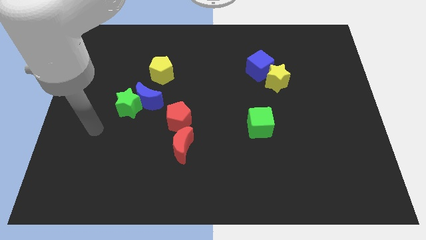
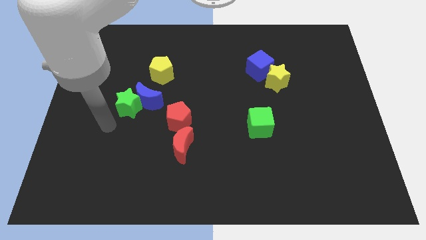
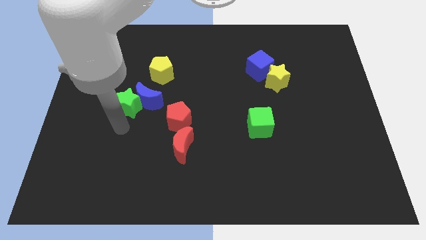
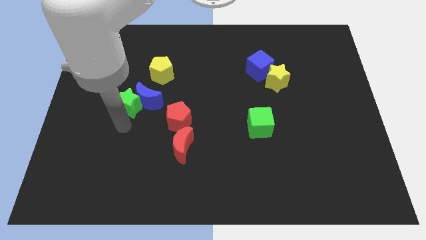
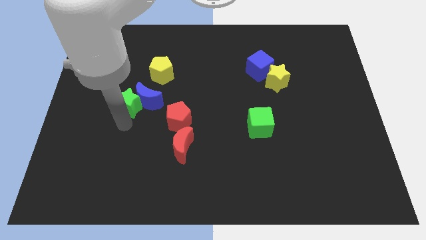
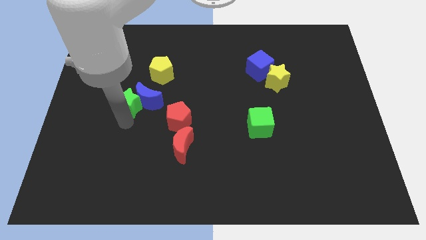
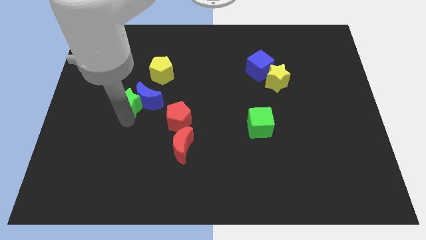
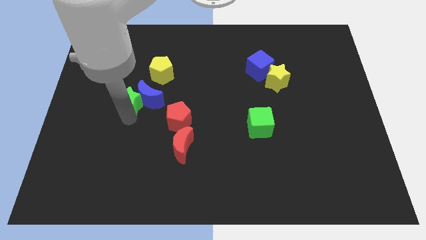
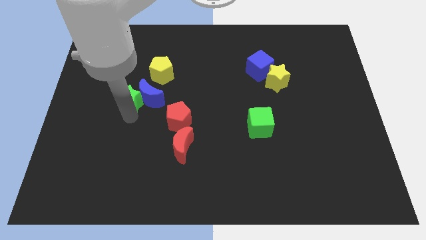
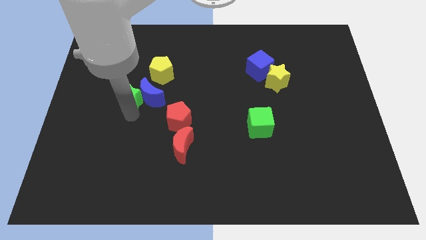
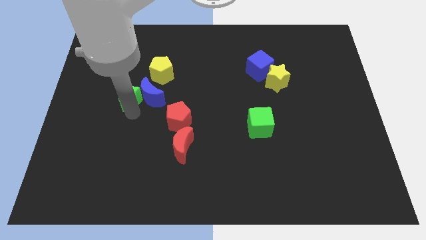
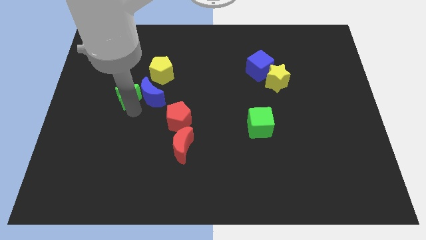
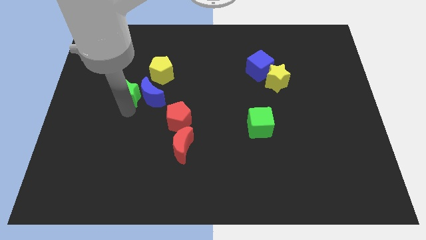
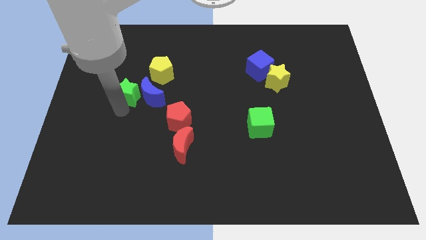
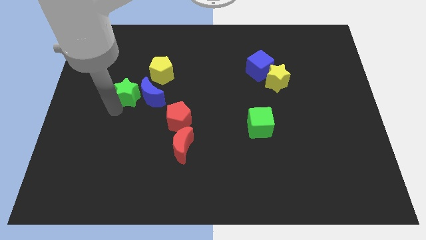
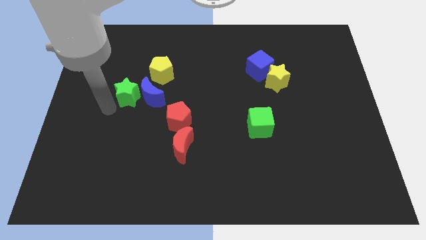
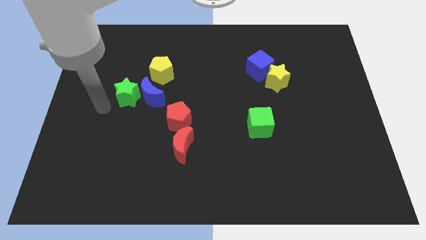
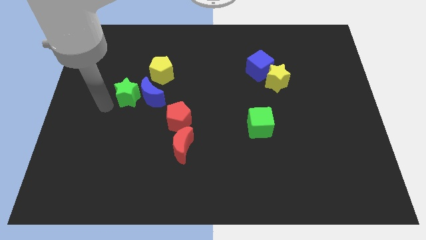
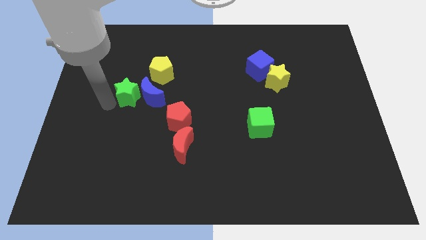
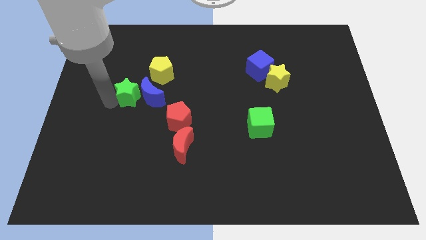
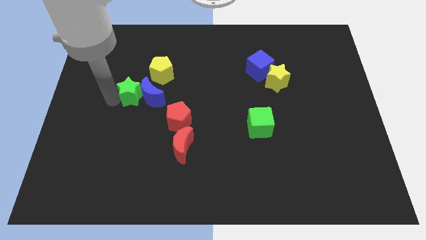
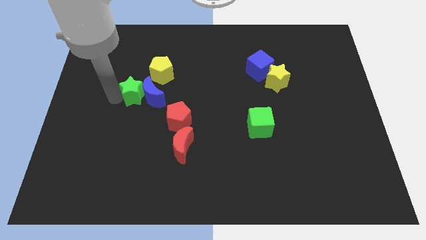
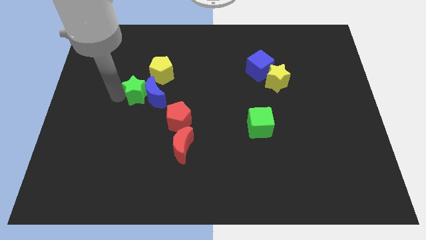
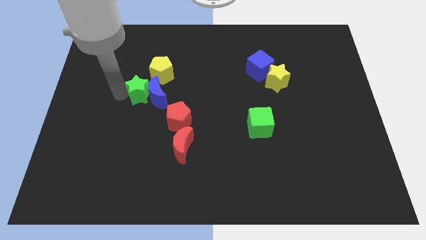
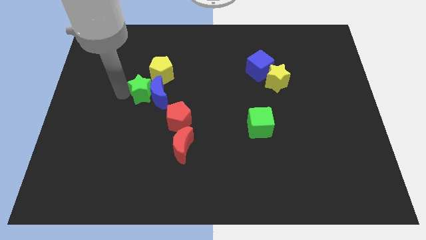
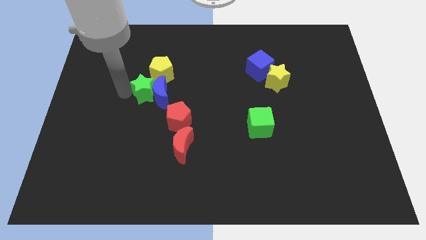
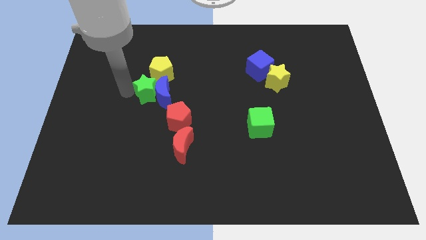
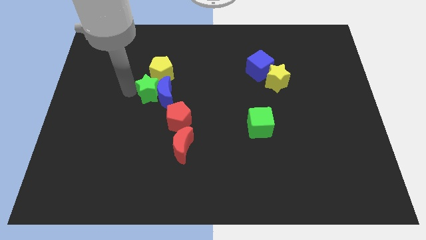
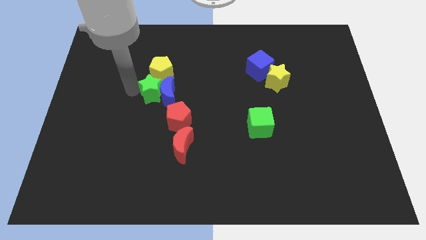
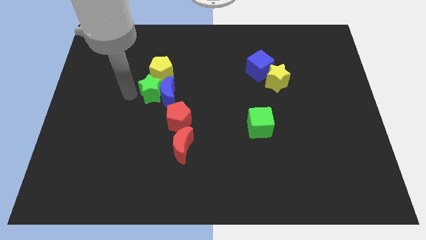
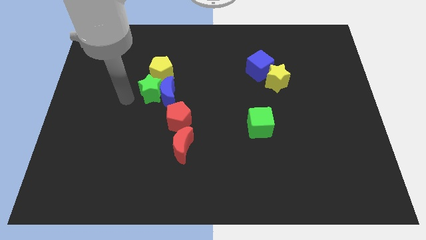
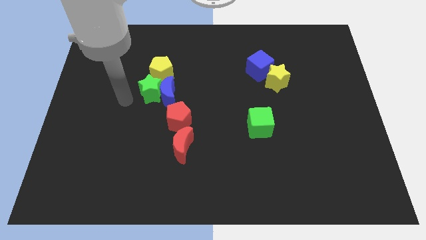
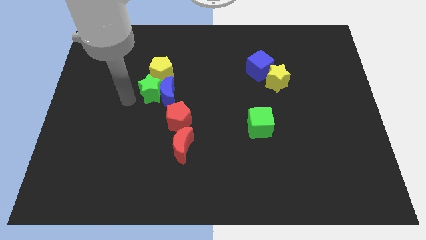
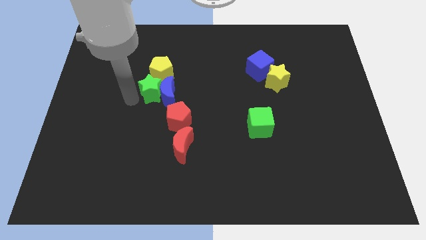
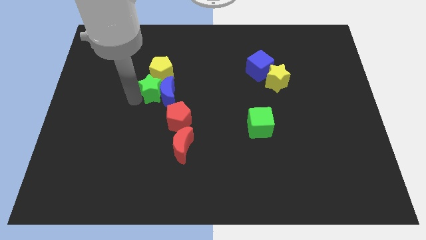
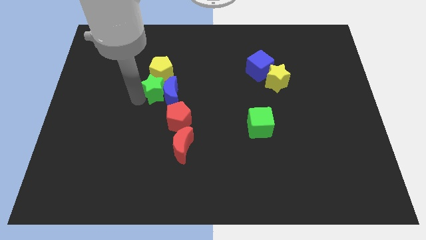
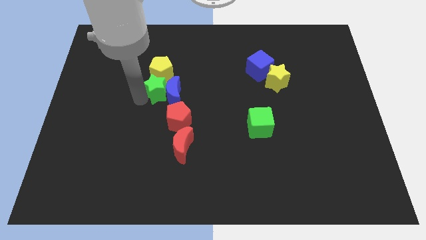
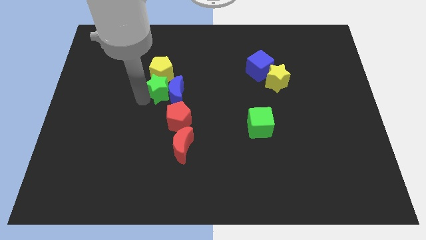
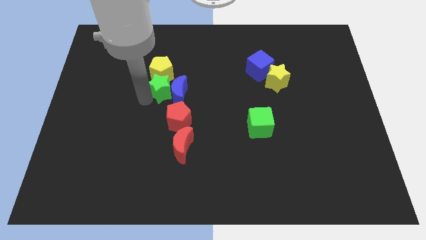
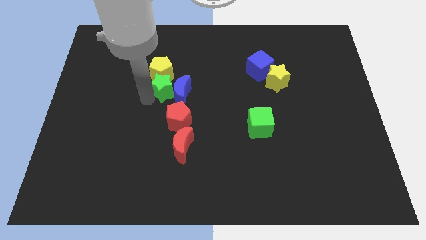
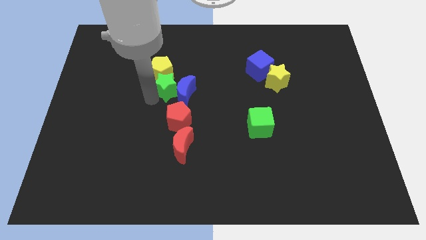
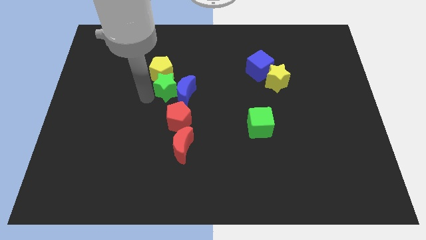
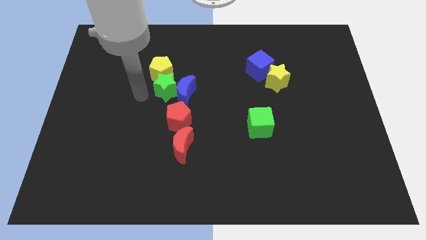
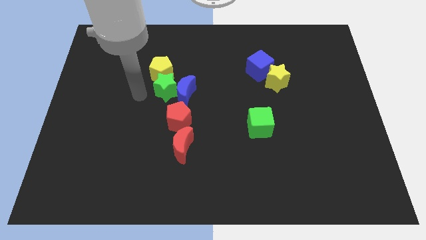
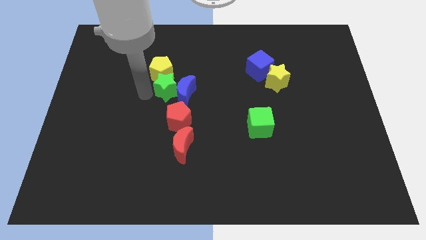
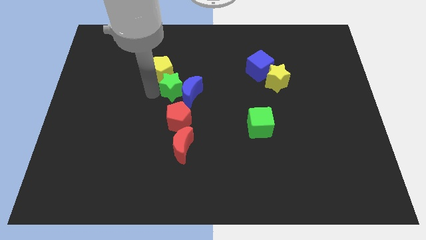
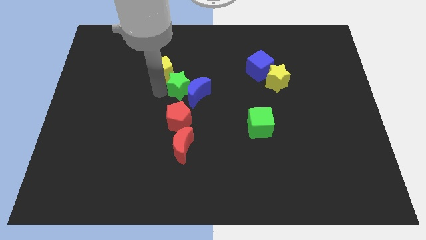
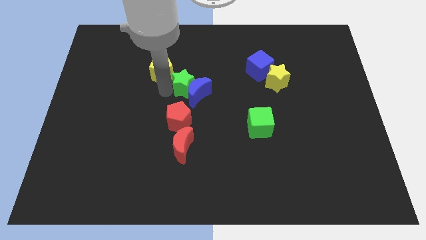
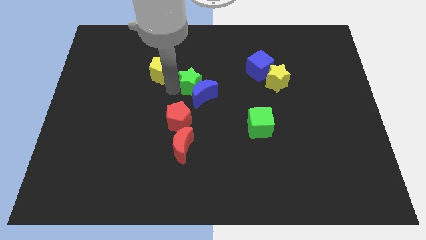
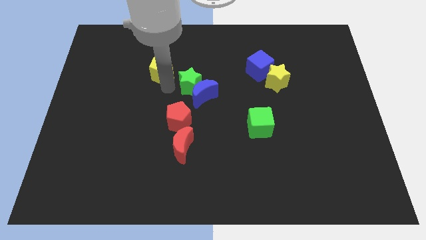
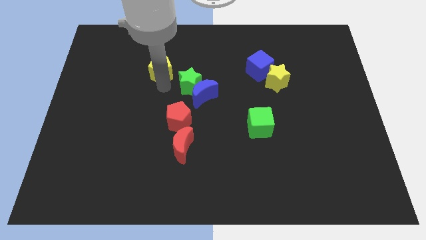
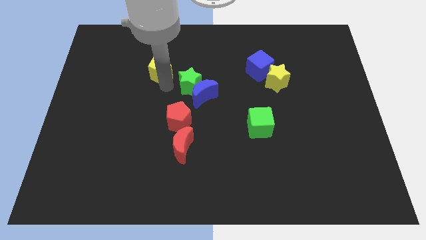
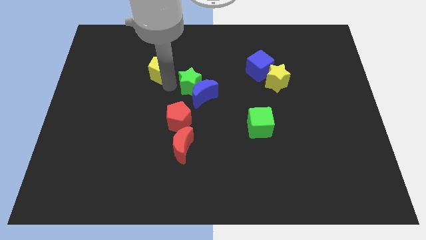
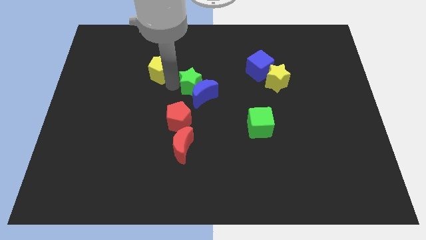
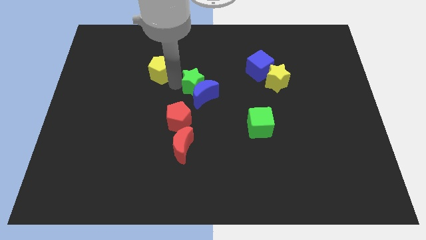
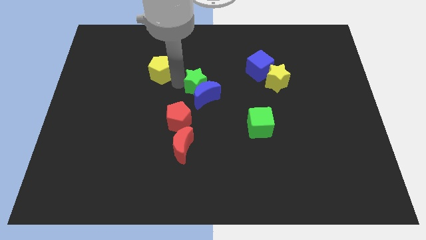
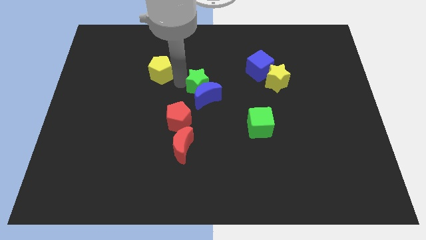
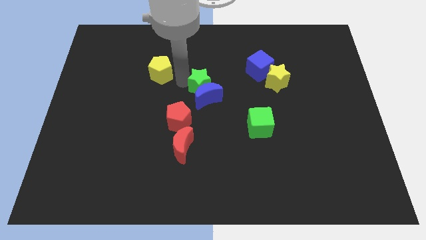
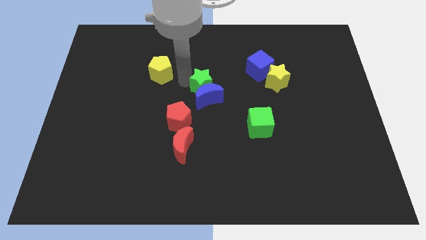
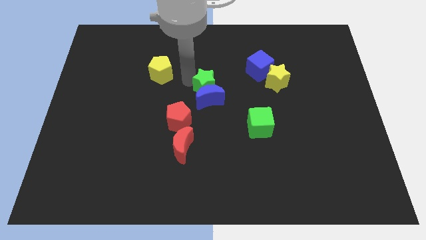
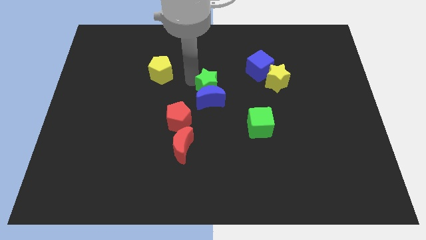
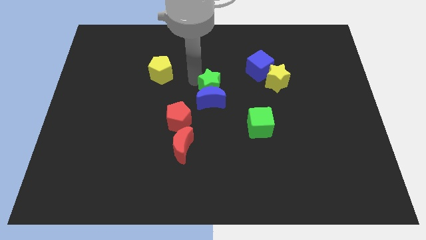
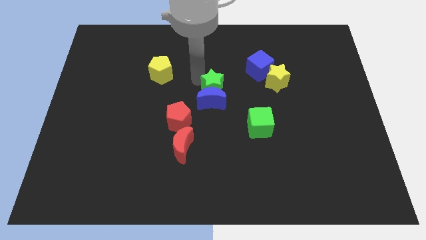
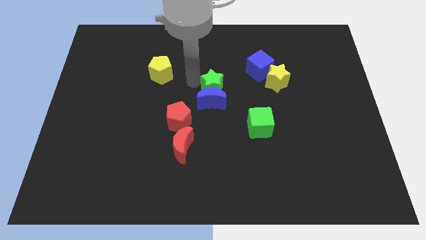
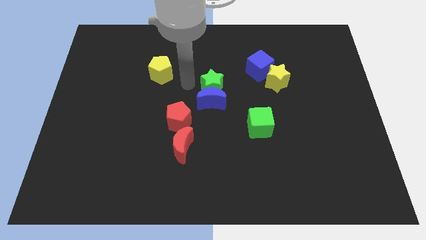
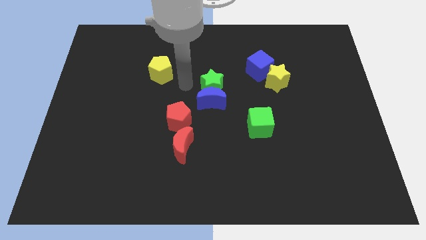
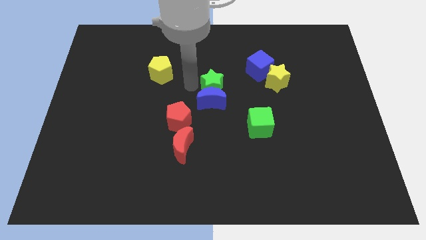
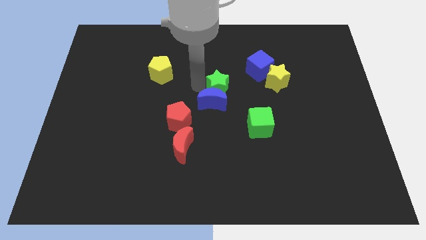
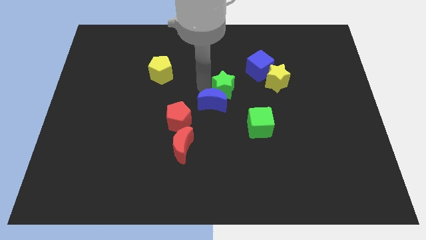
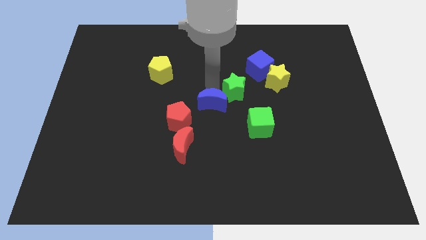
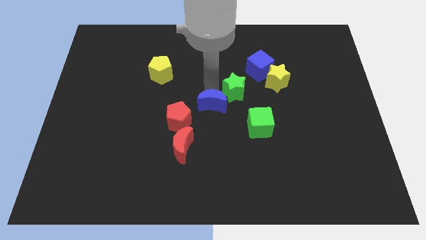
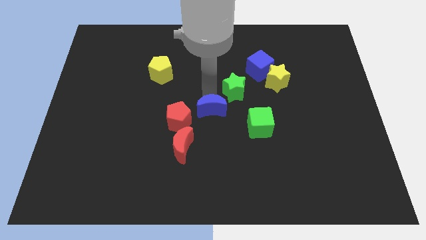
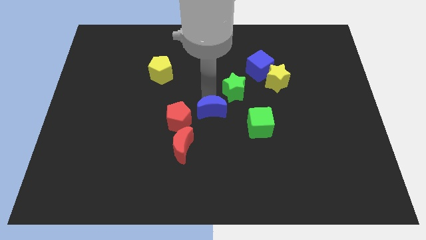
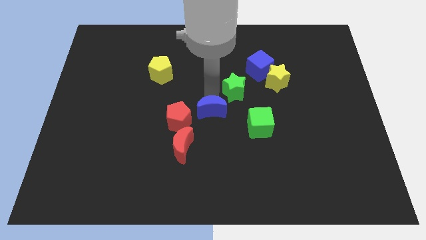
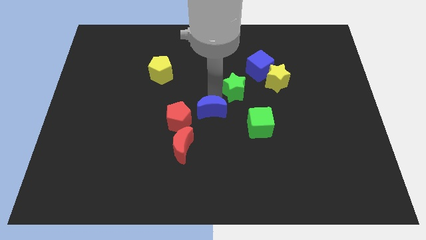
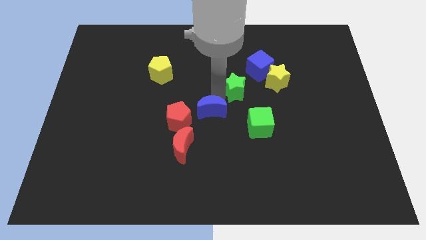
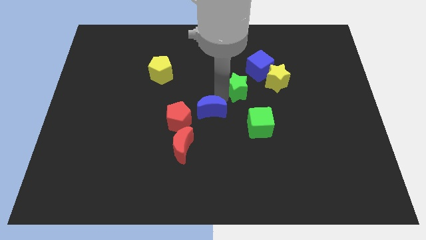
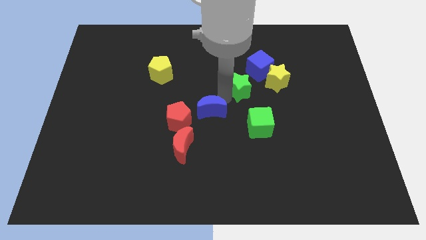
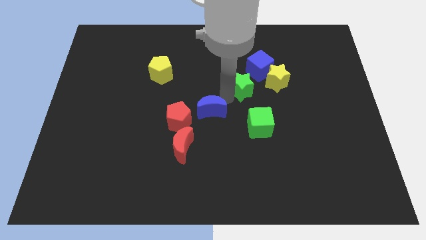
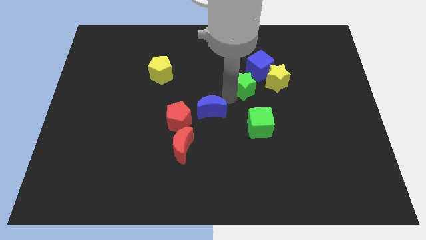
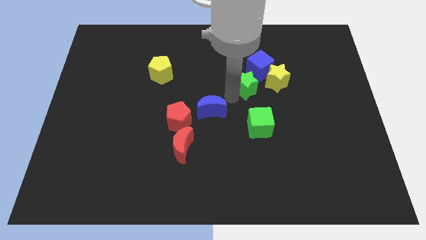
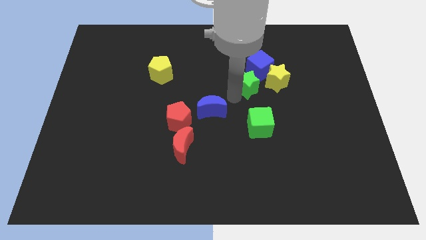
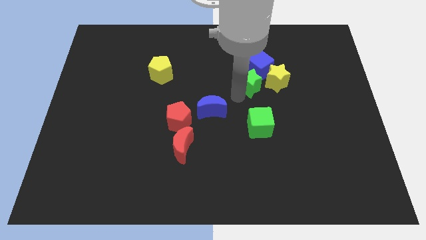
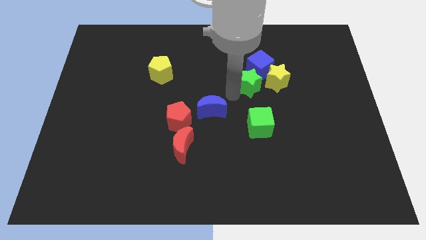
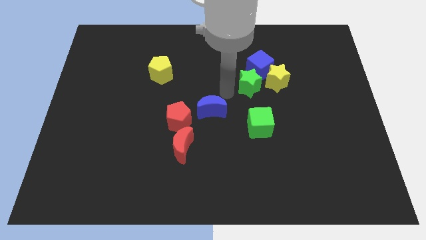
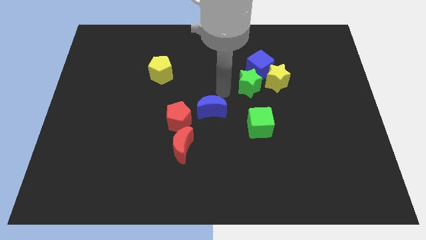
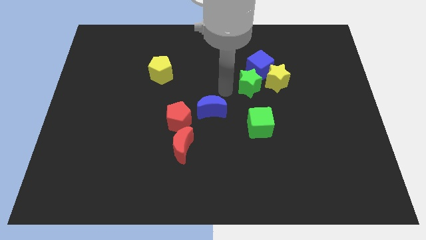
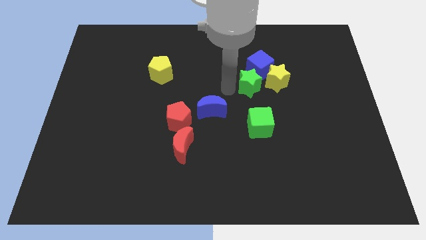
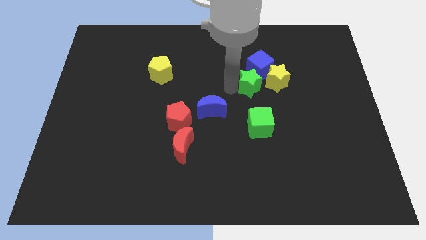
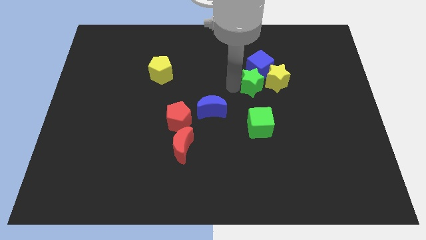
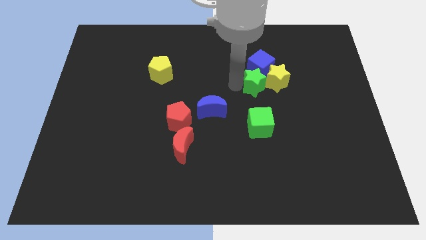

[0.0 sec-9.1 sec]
put the green star towards the yellow star
